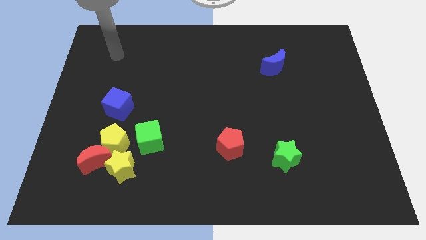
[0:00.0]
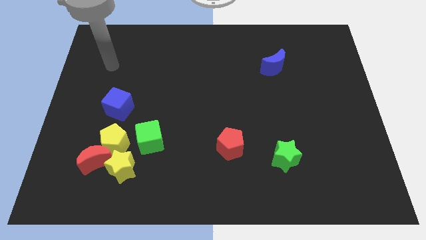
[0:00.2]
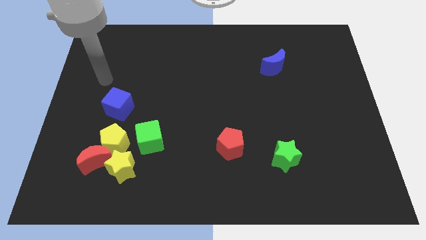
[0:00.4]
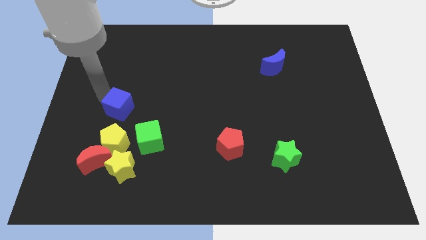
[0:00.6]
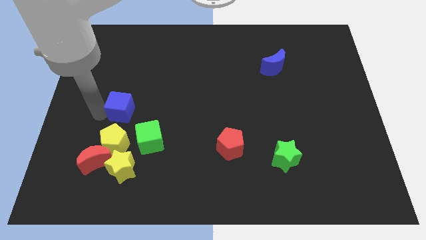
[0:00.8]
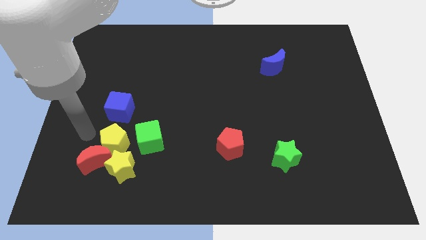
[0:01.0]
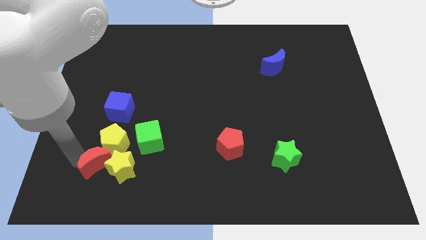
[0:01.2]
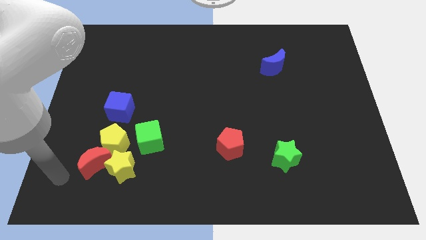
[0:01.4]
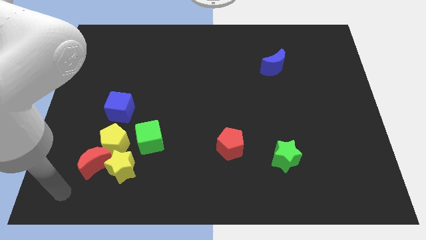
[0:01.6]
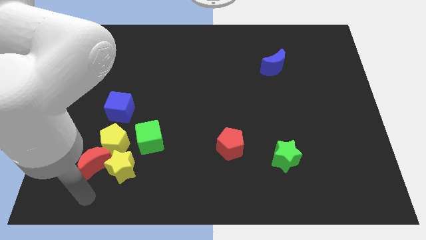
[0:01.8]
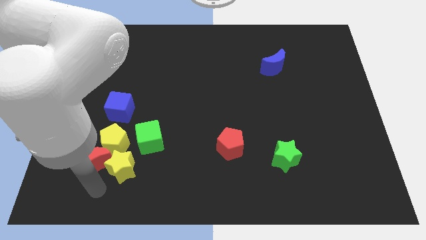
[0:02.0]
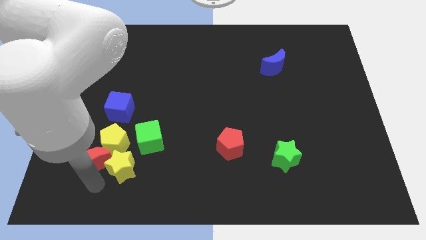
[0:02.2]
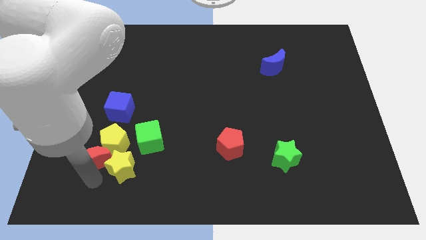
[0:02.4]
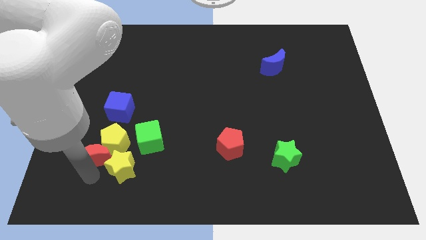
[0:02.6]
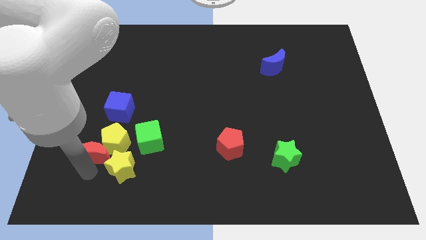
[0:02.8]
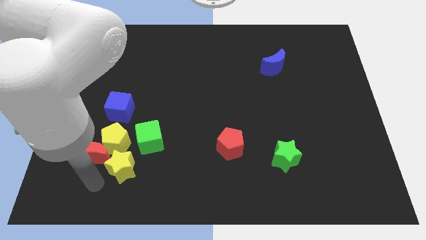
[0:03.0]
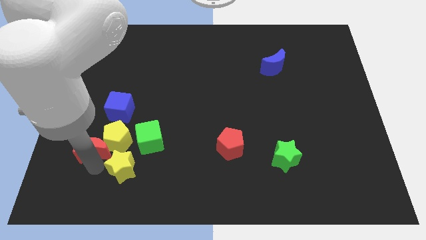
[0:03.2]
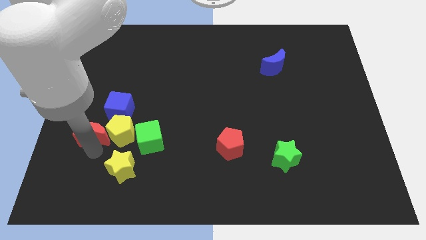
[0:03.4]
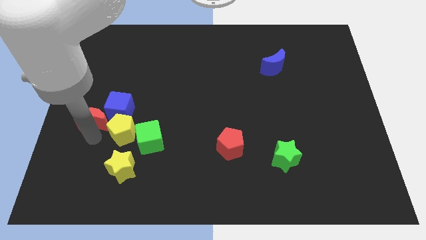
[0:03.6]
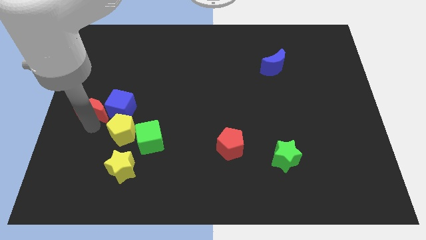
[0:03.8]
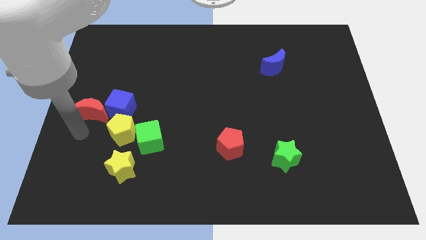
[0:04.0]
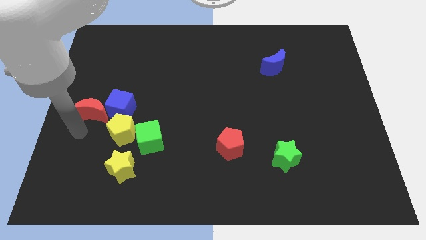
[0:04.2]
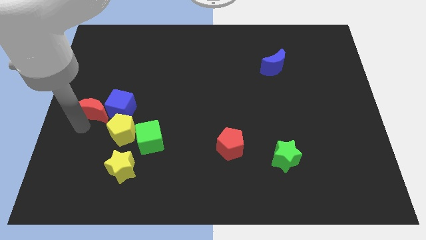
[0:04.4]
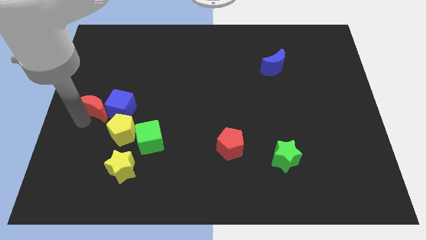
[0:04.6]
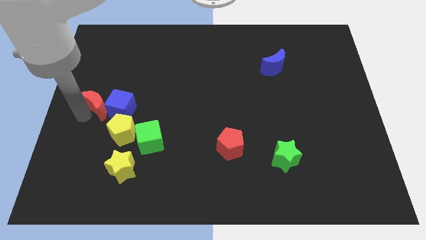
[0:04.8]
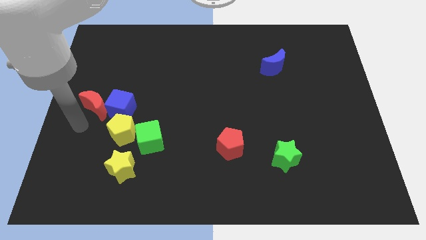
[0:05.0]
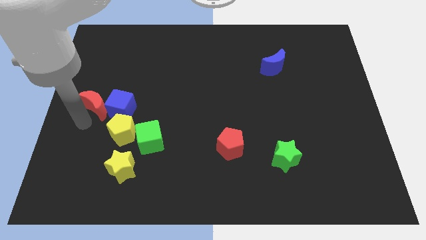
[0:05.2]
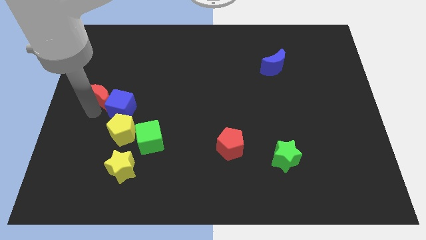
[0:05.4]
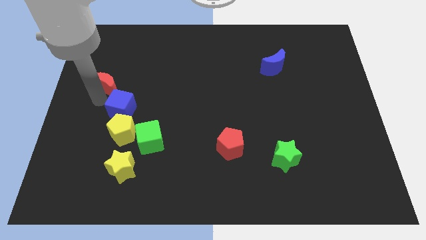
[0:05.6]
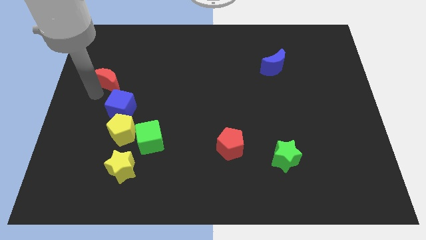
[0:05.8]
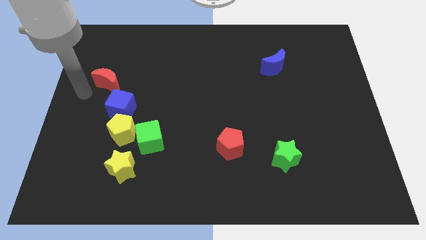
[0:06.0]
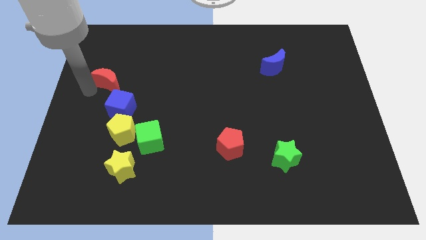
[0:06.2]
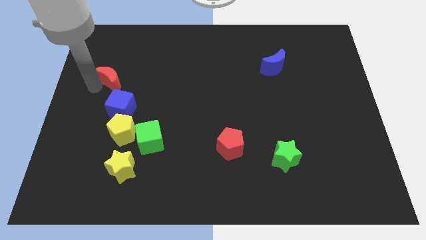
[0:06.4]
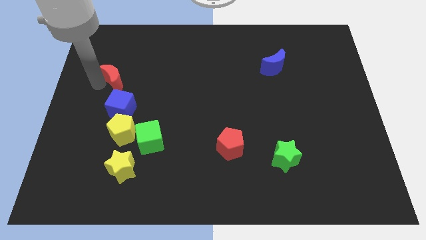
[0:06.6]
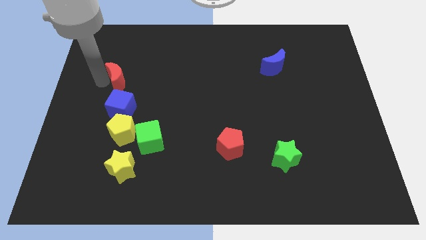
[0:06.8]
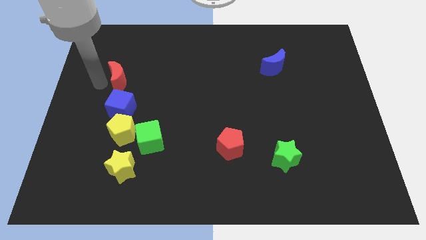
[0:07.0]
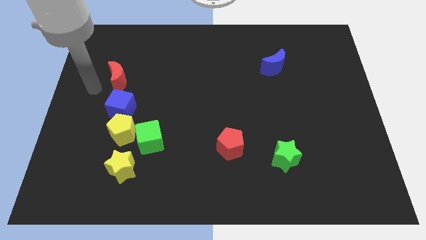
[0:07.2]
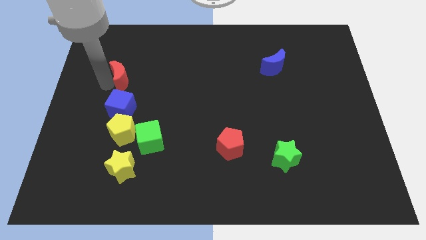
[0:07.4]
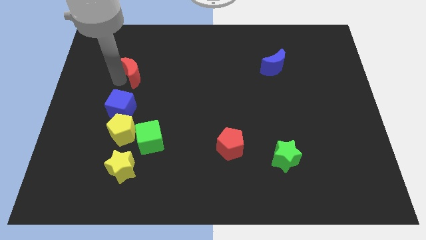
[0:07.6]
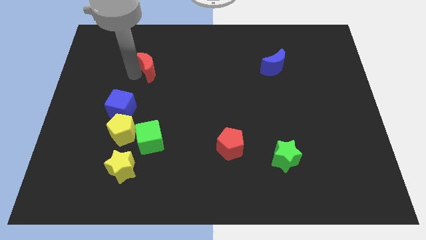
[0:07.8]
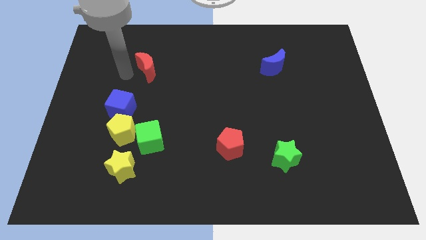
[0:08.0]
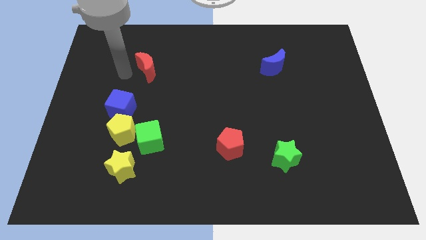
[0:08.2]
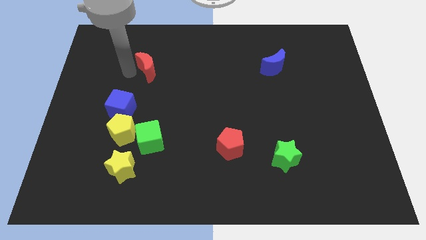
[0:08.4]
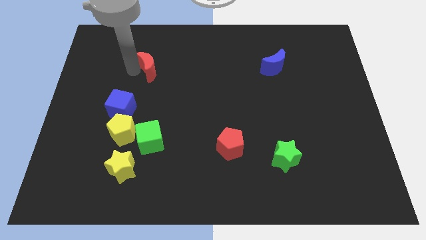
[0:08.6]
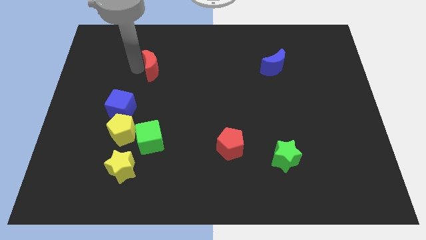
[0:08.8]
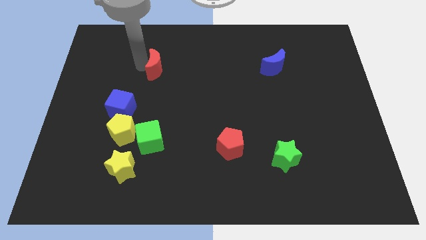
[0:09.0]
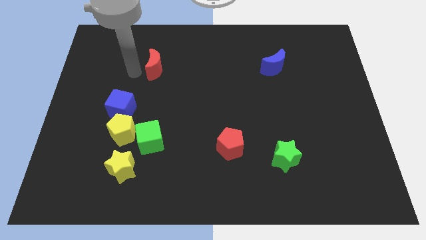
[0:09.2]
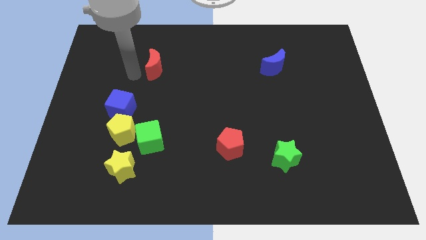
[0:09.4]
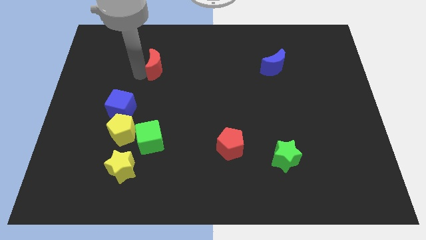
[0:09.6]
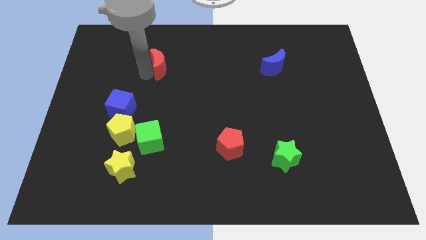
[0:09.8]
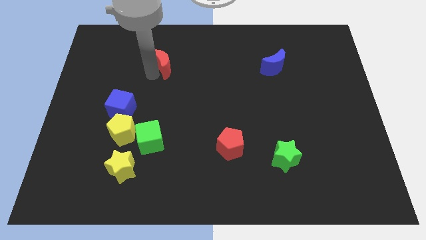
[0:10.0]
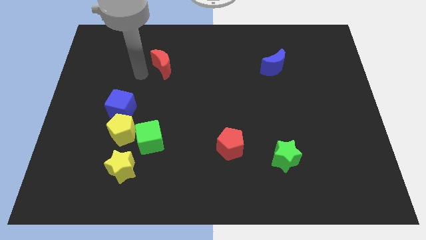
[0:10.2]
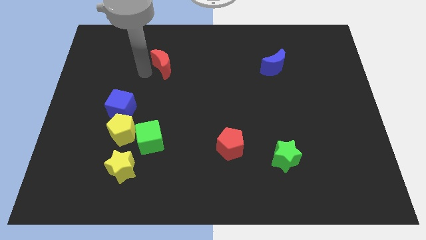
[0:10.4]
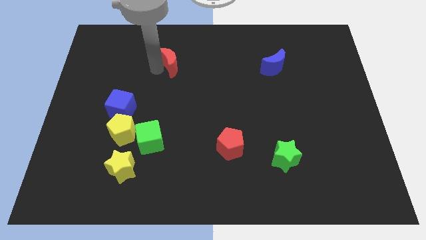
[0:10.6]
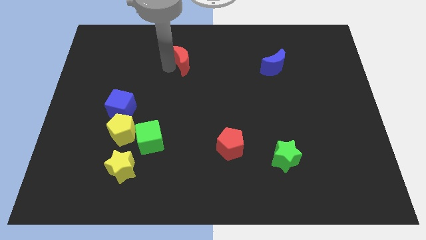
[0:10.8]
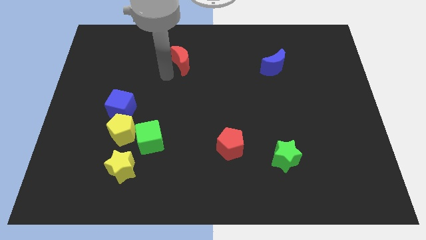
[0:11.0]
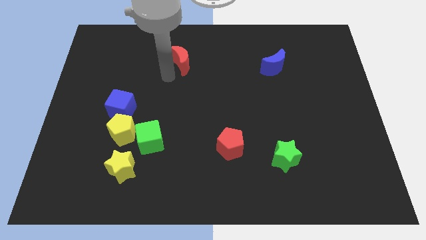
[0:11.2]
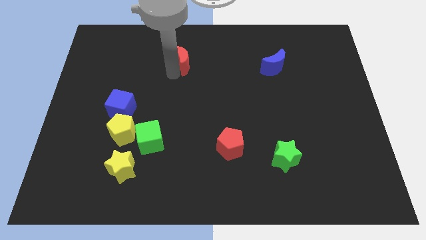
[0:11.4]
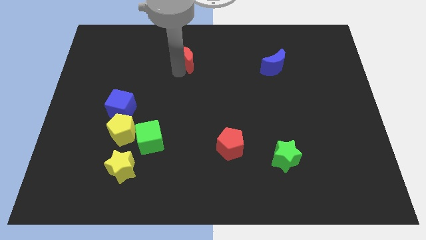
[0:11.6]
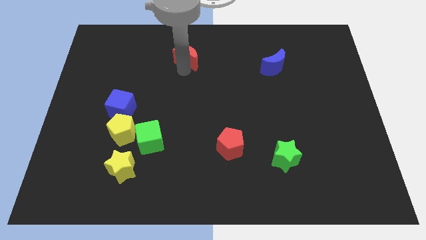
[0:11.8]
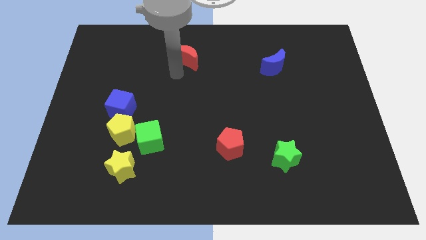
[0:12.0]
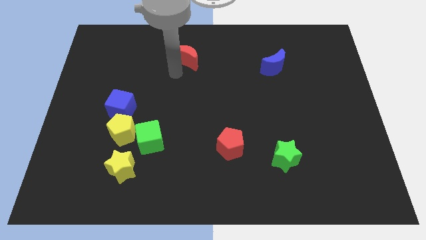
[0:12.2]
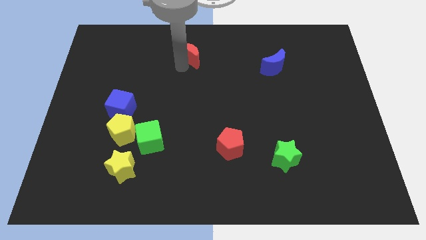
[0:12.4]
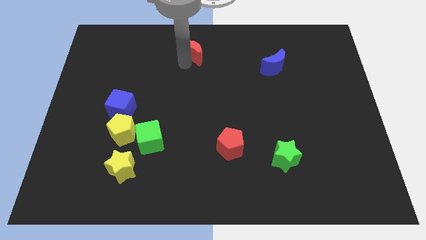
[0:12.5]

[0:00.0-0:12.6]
push the red moon to the towards your base
